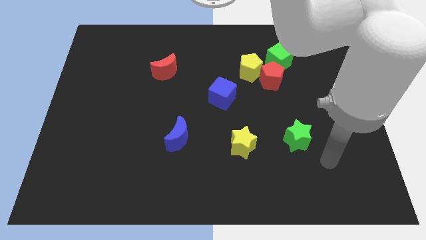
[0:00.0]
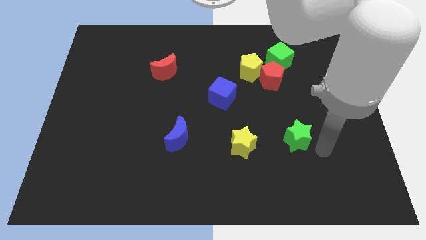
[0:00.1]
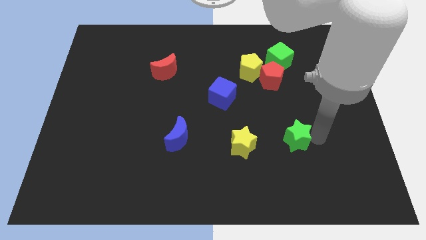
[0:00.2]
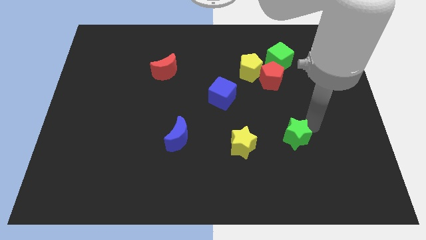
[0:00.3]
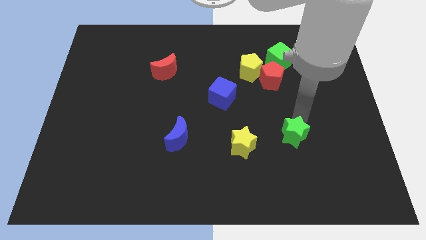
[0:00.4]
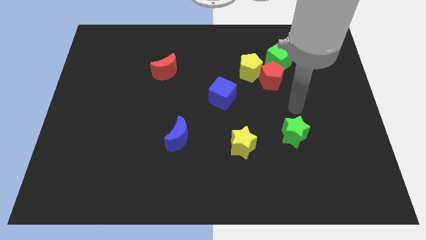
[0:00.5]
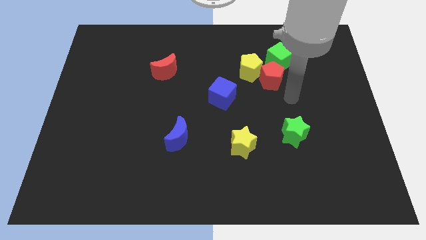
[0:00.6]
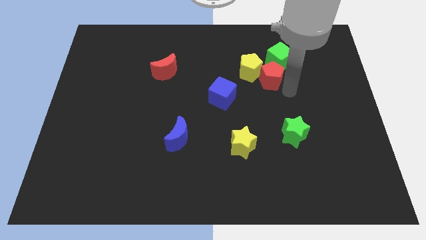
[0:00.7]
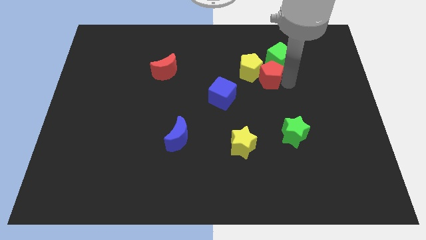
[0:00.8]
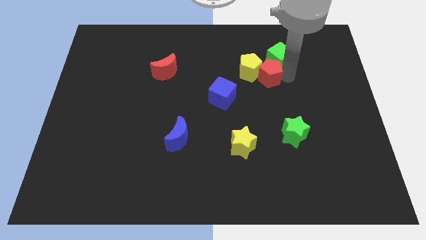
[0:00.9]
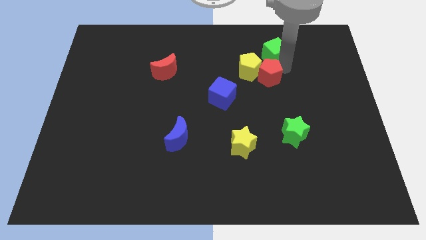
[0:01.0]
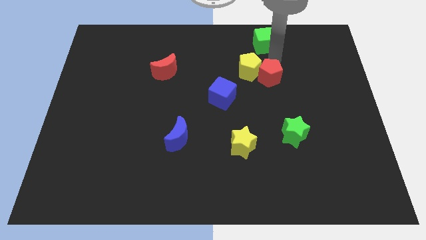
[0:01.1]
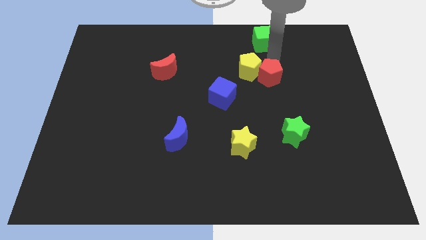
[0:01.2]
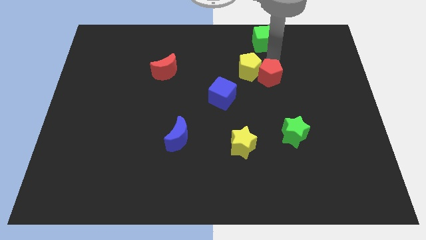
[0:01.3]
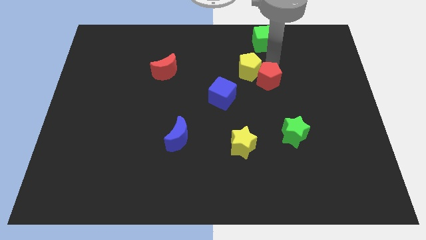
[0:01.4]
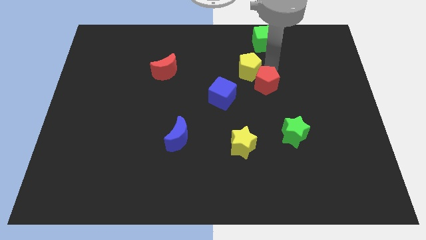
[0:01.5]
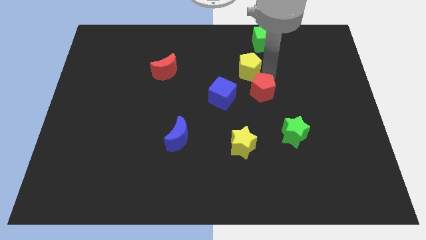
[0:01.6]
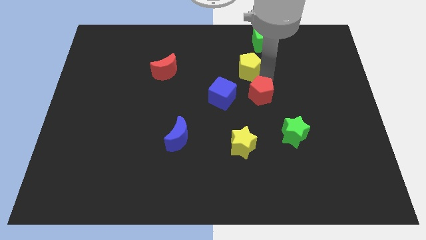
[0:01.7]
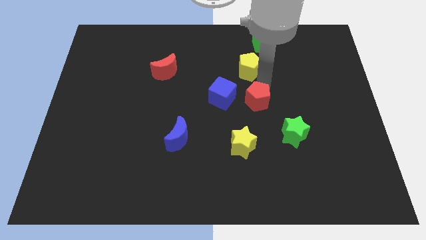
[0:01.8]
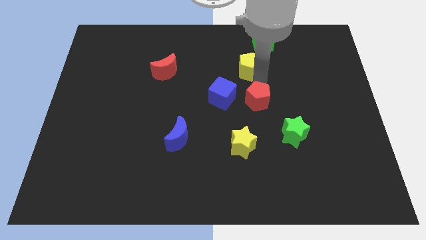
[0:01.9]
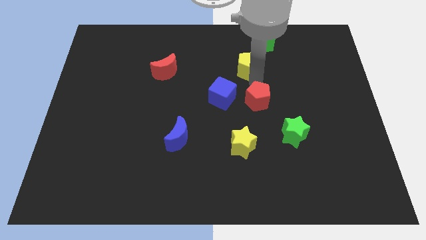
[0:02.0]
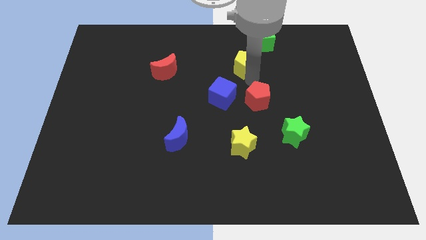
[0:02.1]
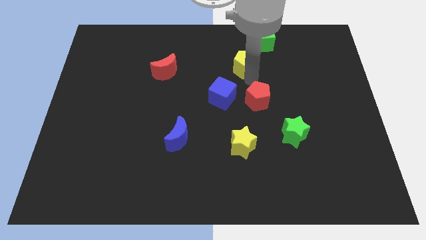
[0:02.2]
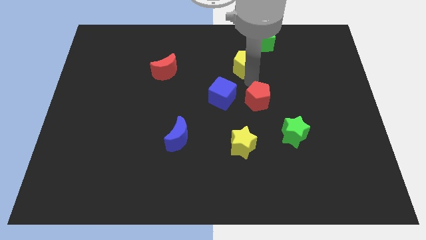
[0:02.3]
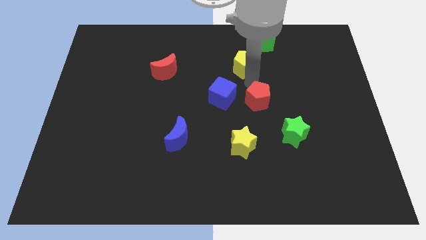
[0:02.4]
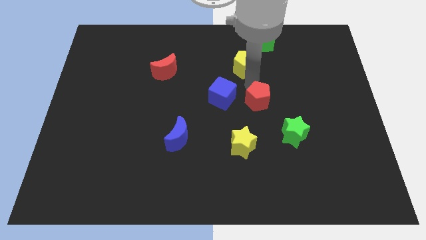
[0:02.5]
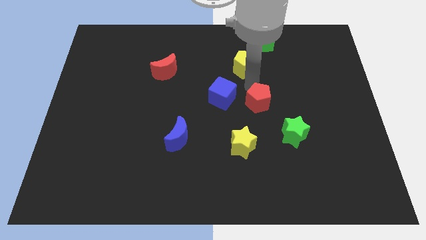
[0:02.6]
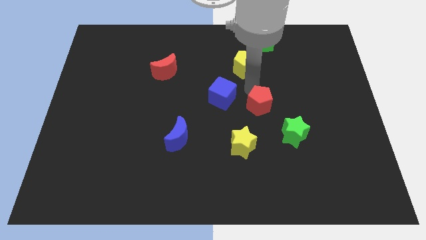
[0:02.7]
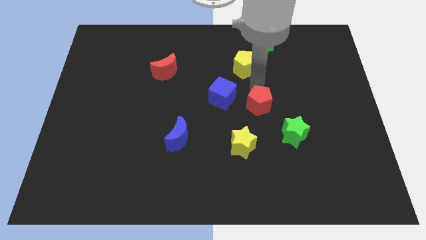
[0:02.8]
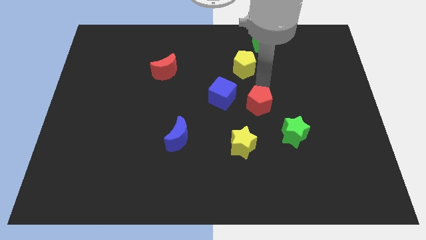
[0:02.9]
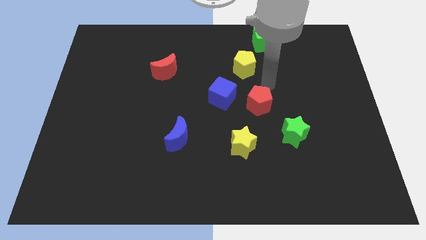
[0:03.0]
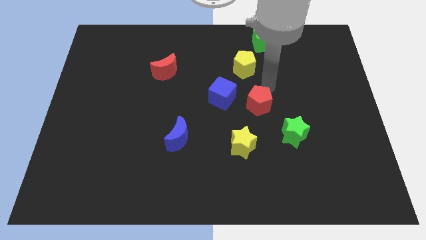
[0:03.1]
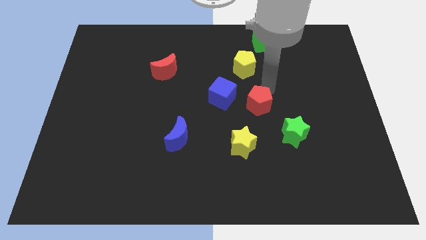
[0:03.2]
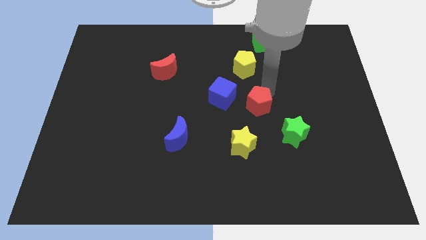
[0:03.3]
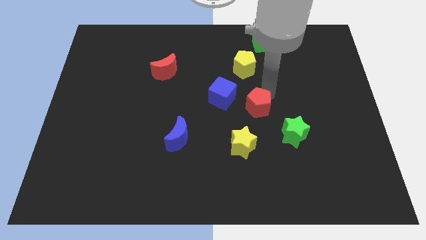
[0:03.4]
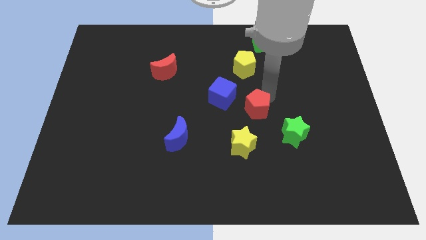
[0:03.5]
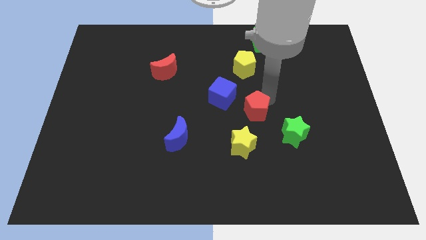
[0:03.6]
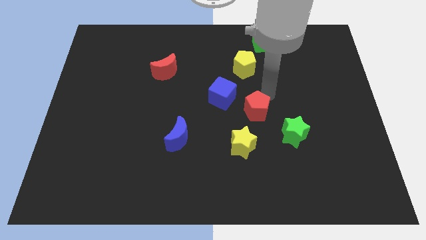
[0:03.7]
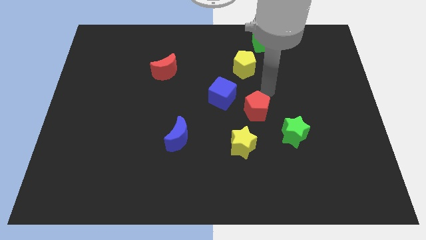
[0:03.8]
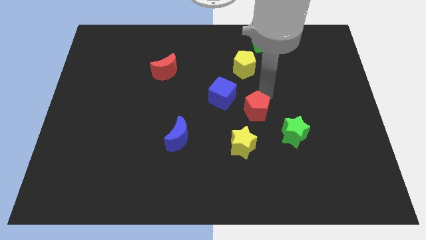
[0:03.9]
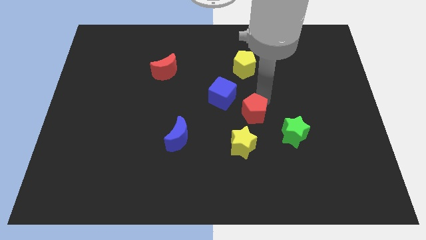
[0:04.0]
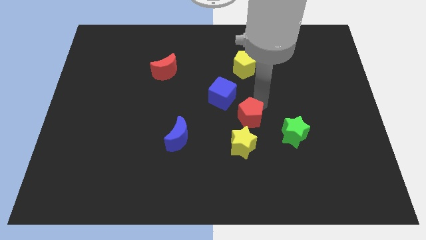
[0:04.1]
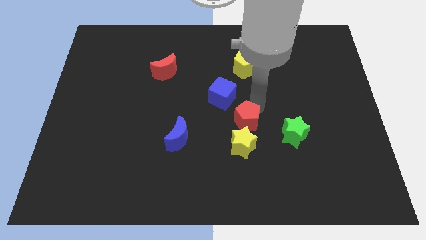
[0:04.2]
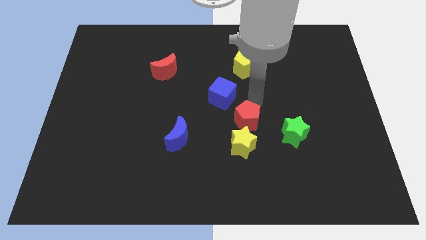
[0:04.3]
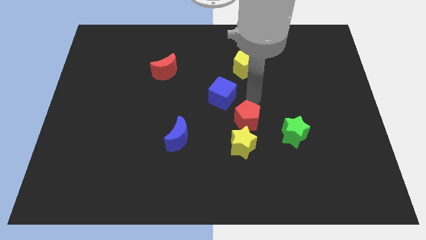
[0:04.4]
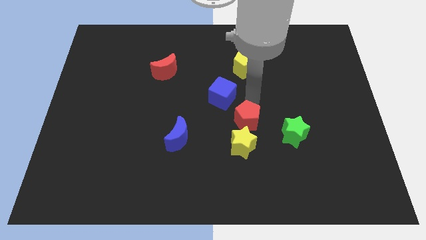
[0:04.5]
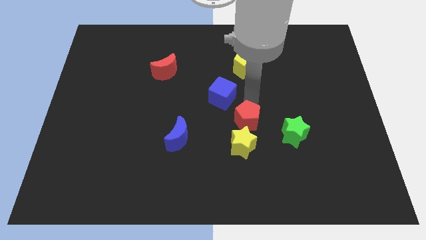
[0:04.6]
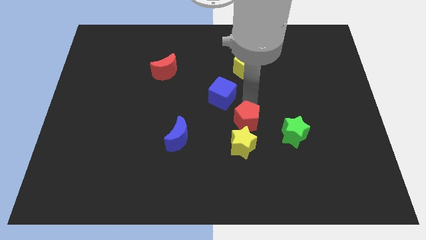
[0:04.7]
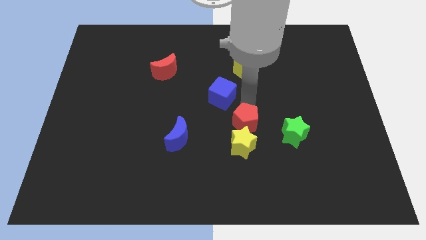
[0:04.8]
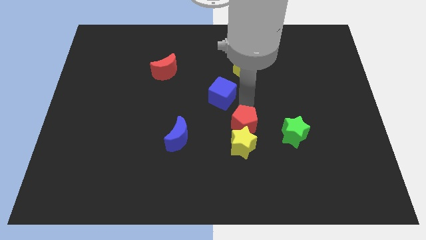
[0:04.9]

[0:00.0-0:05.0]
move the red pentagon to the yellow star

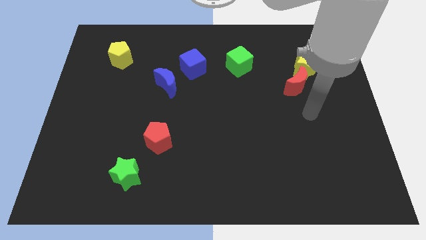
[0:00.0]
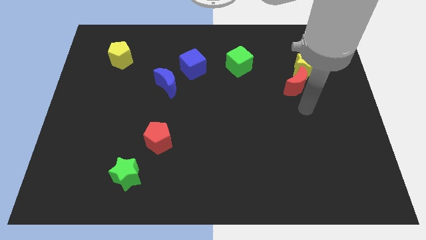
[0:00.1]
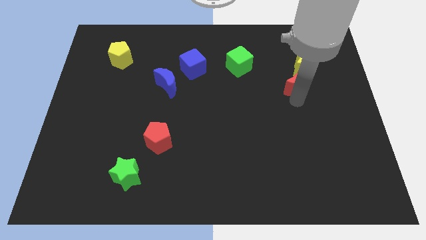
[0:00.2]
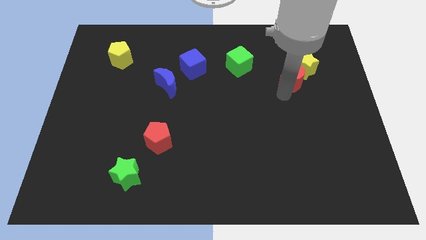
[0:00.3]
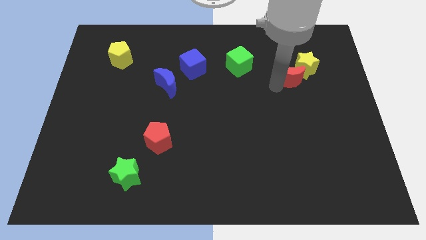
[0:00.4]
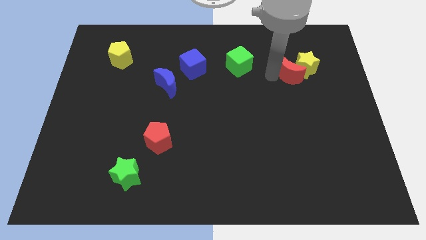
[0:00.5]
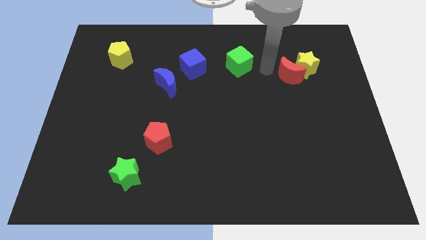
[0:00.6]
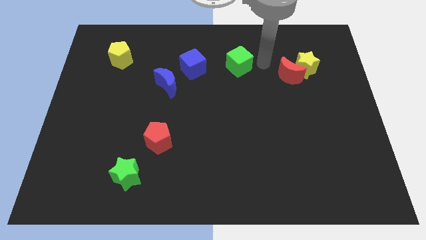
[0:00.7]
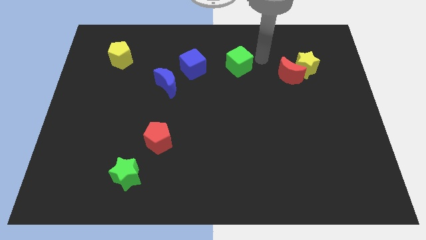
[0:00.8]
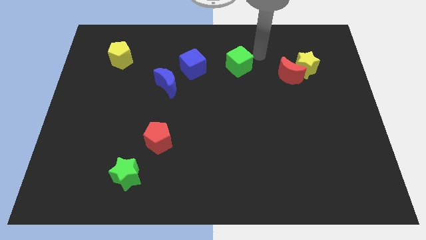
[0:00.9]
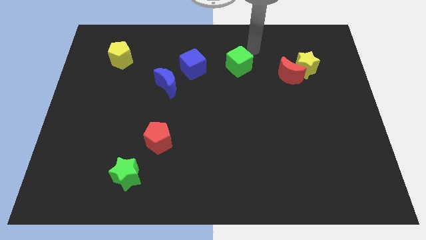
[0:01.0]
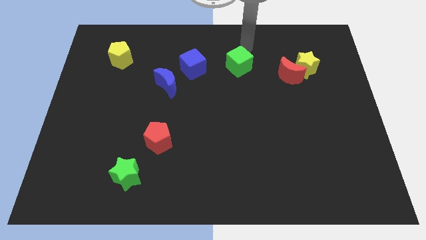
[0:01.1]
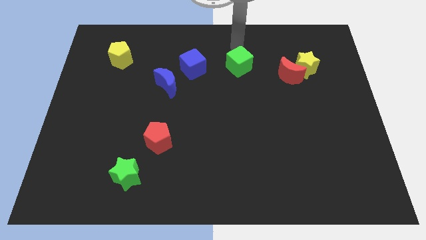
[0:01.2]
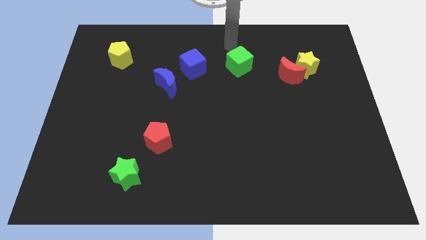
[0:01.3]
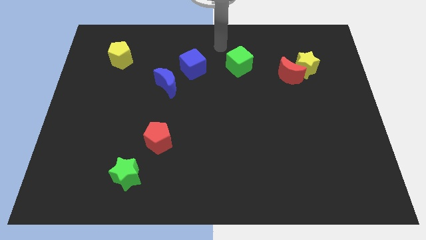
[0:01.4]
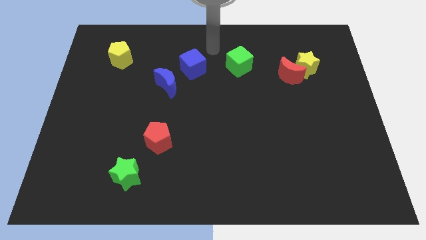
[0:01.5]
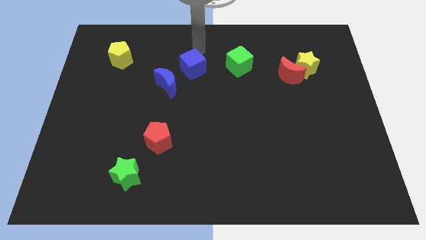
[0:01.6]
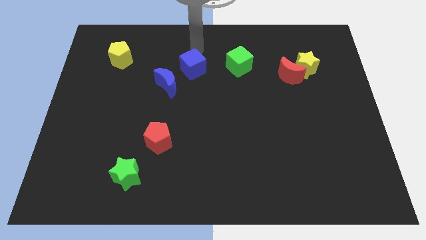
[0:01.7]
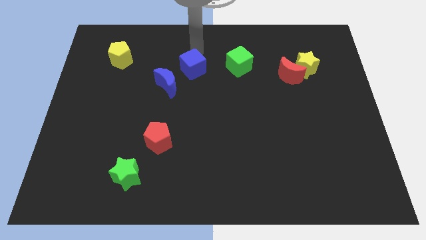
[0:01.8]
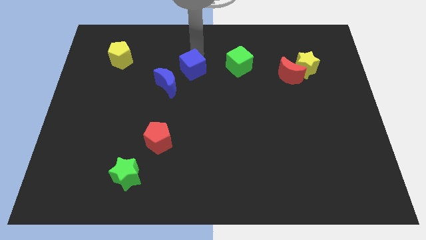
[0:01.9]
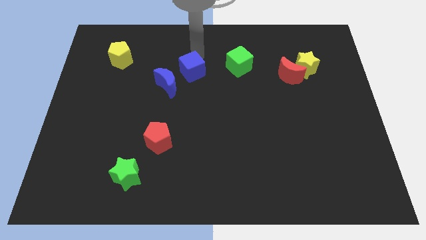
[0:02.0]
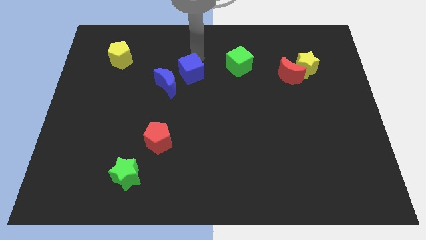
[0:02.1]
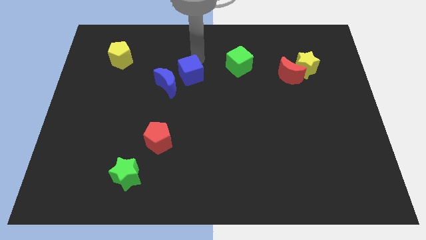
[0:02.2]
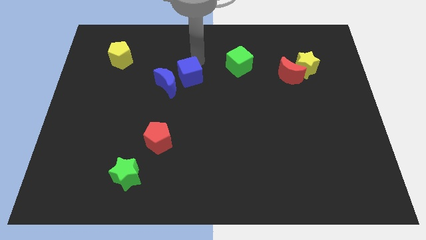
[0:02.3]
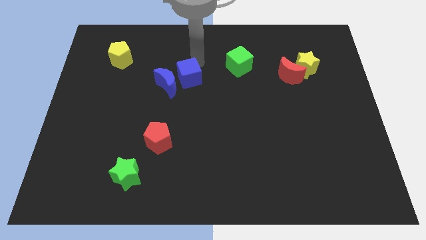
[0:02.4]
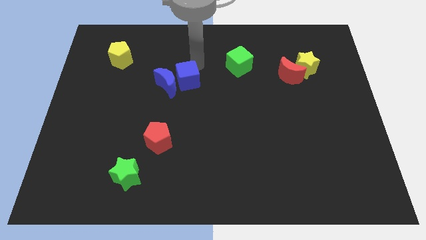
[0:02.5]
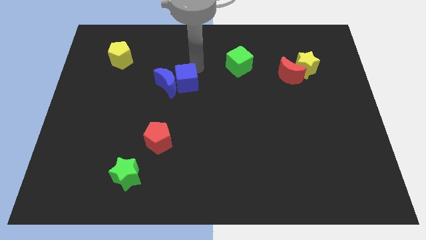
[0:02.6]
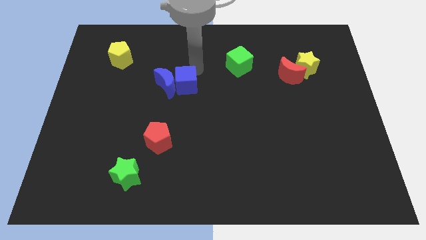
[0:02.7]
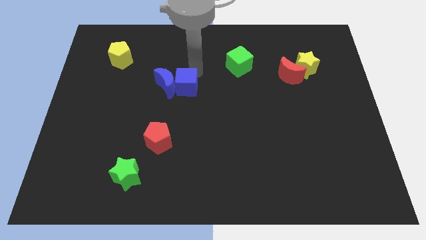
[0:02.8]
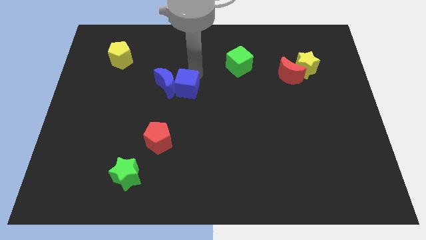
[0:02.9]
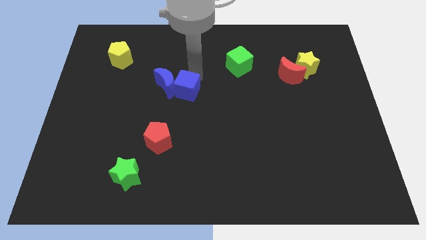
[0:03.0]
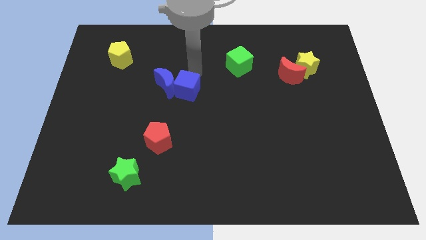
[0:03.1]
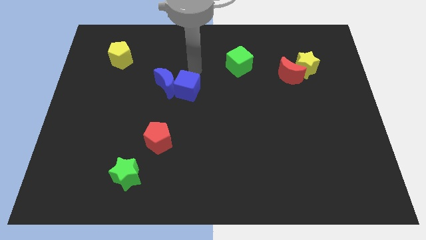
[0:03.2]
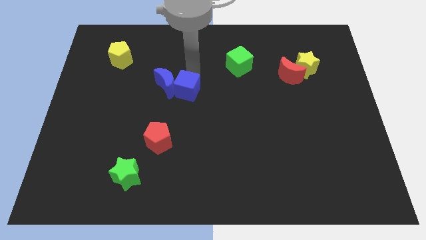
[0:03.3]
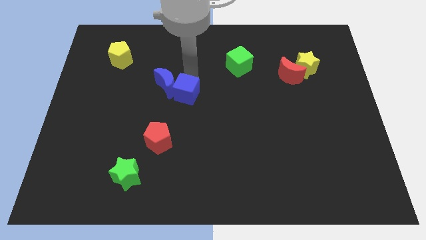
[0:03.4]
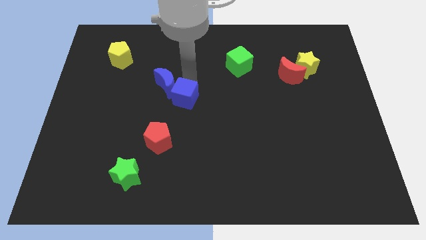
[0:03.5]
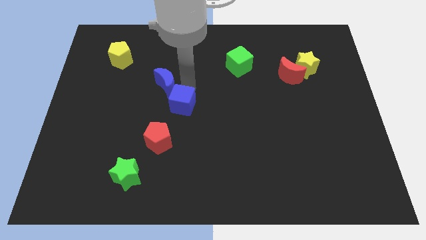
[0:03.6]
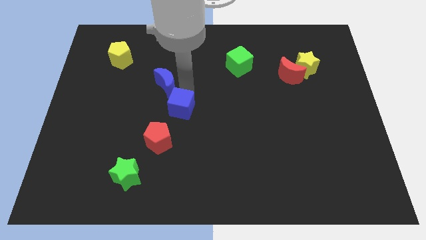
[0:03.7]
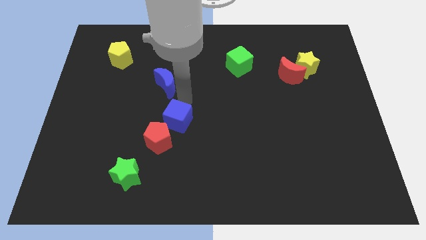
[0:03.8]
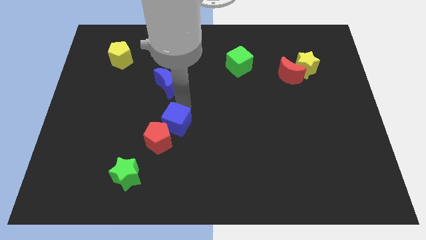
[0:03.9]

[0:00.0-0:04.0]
slide the blue cube to the red pentagon
